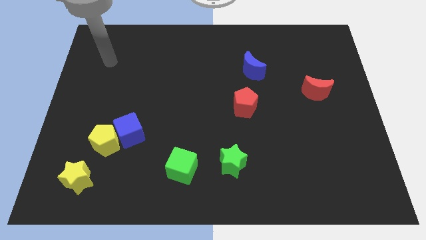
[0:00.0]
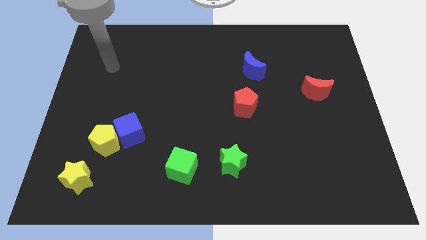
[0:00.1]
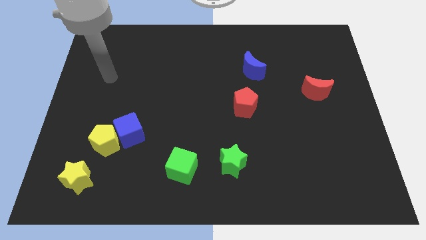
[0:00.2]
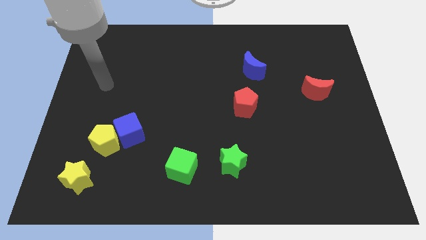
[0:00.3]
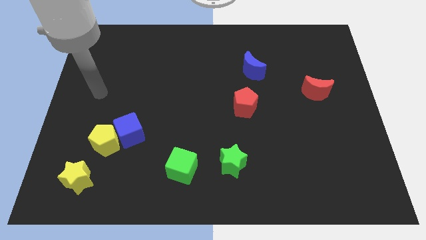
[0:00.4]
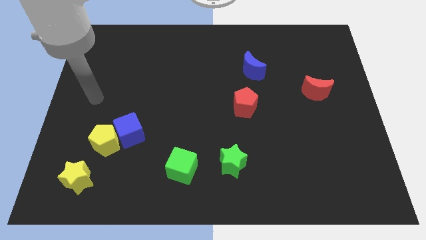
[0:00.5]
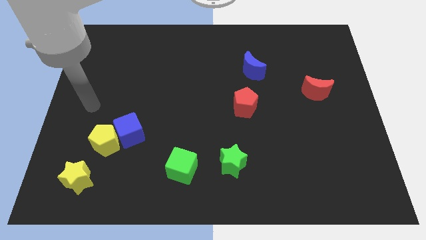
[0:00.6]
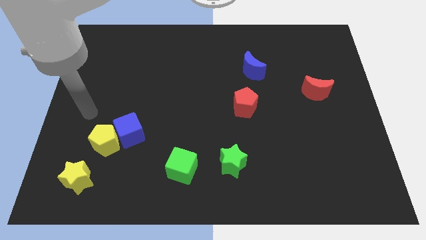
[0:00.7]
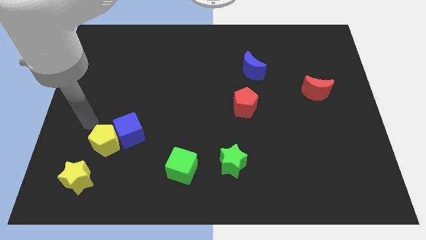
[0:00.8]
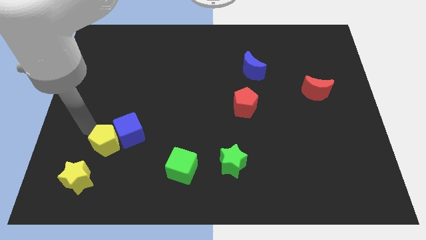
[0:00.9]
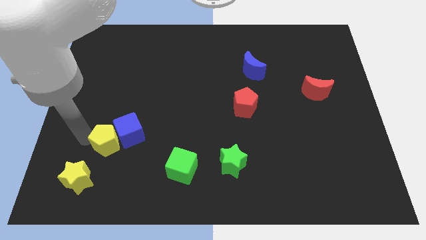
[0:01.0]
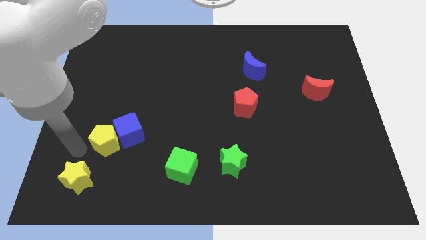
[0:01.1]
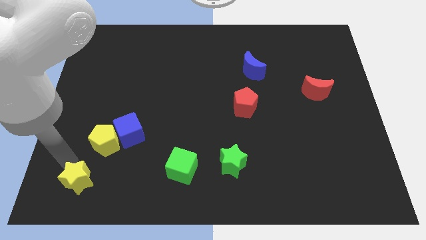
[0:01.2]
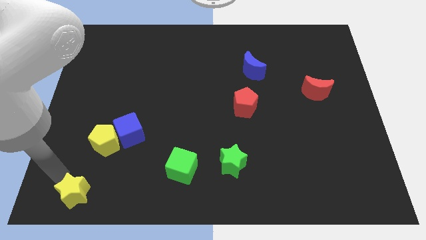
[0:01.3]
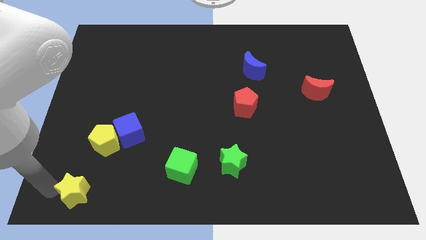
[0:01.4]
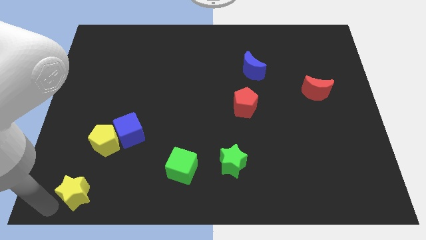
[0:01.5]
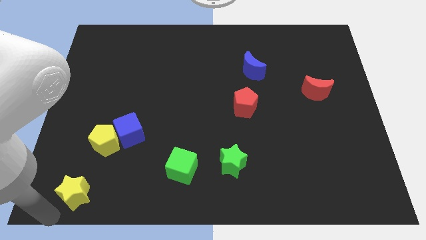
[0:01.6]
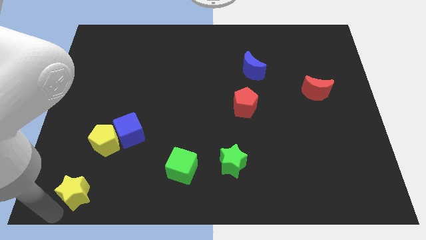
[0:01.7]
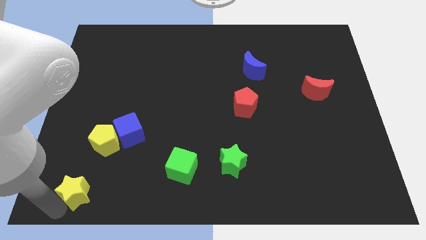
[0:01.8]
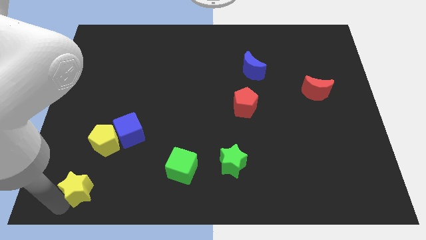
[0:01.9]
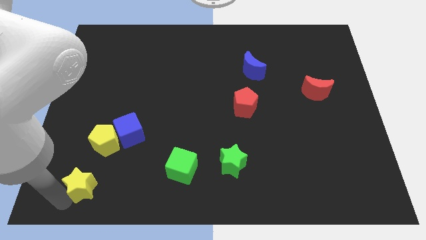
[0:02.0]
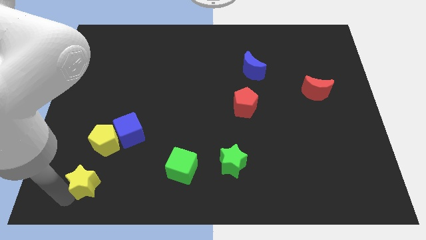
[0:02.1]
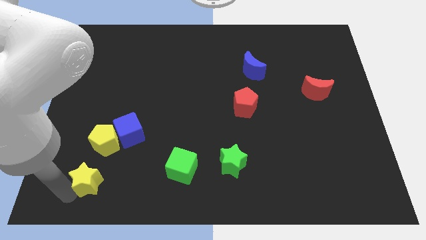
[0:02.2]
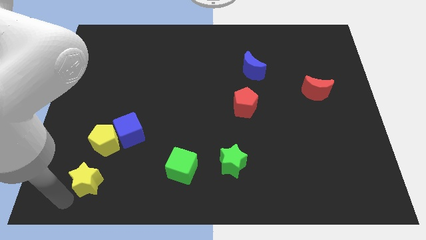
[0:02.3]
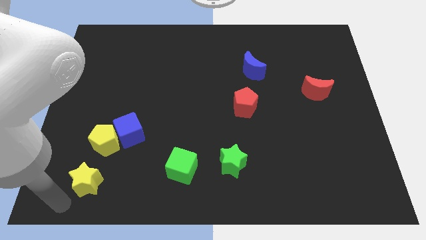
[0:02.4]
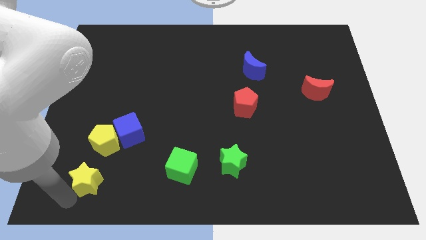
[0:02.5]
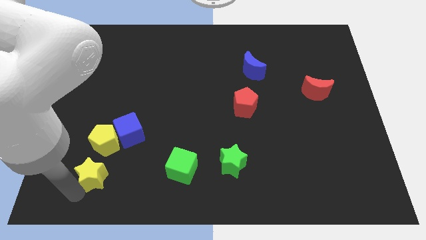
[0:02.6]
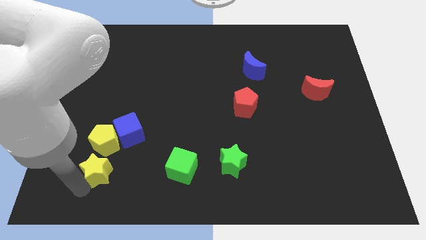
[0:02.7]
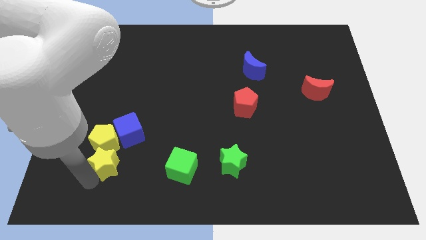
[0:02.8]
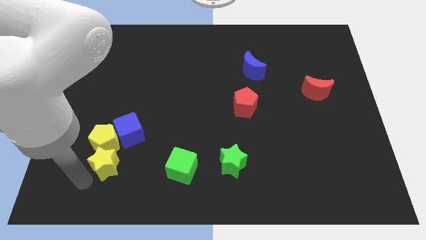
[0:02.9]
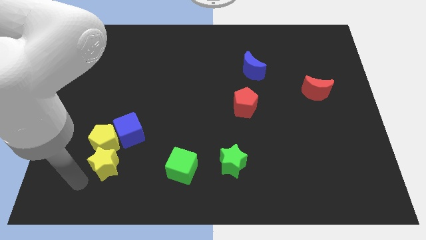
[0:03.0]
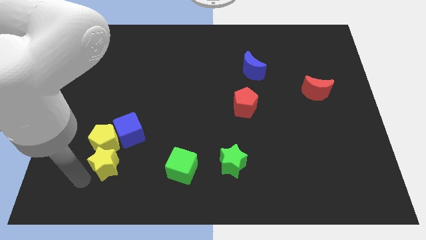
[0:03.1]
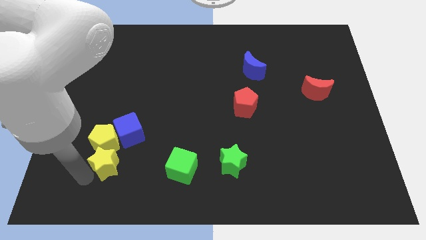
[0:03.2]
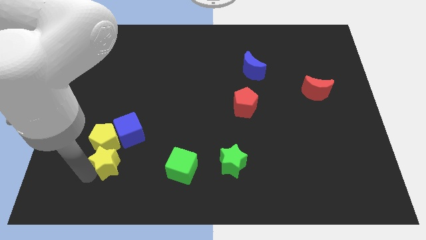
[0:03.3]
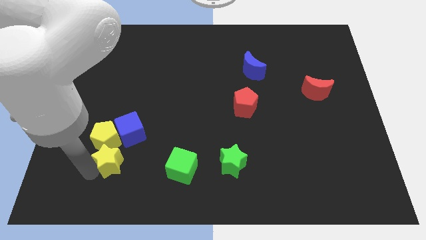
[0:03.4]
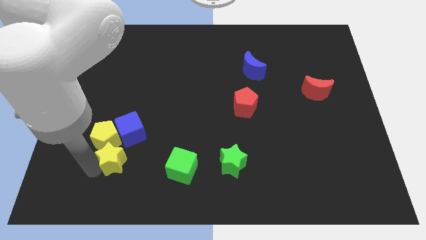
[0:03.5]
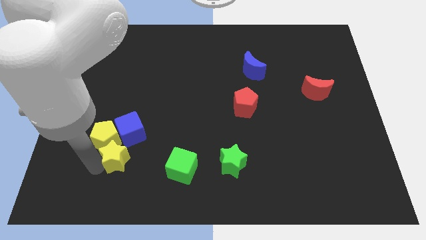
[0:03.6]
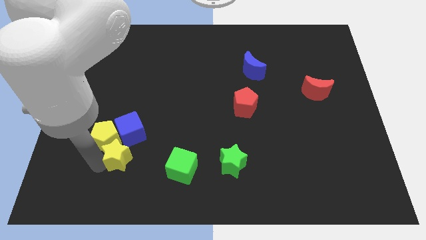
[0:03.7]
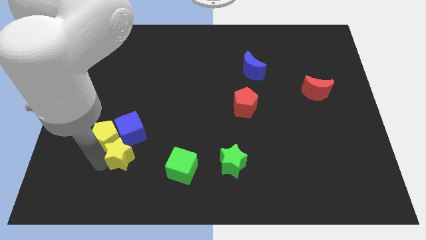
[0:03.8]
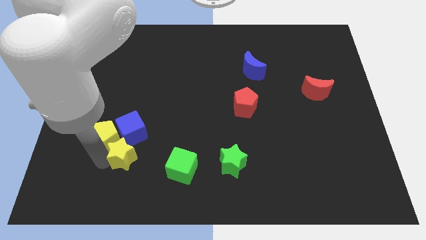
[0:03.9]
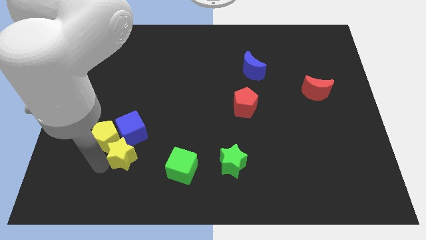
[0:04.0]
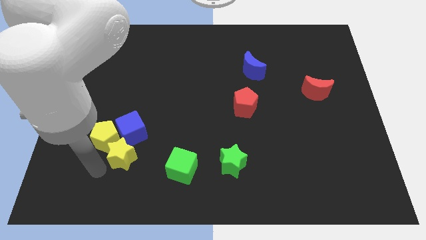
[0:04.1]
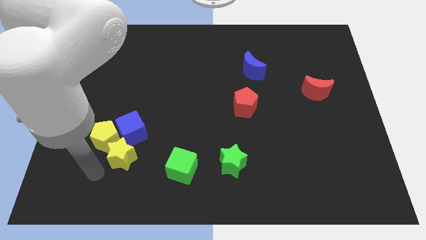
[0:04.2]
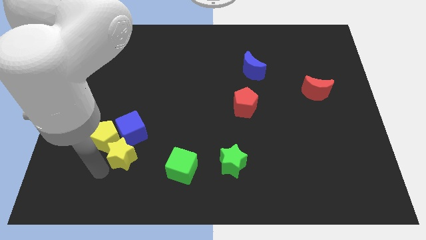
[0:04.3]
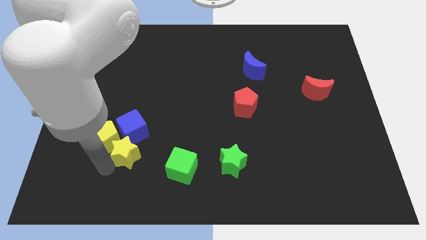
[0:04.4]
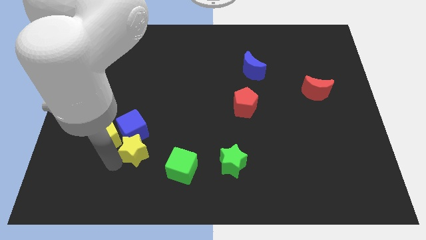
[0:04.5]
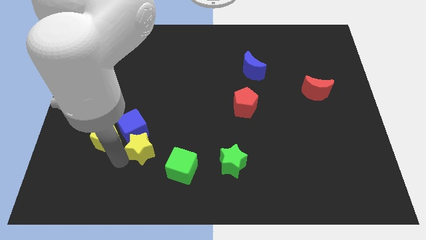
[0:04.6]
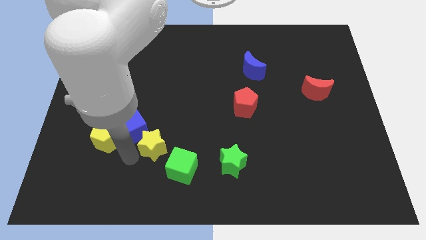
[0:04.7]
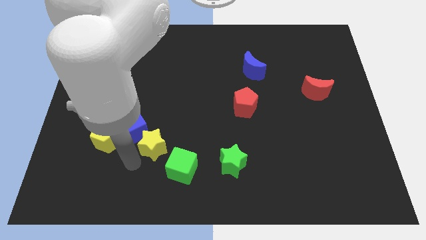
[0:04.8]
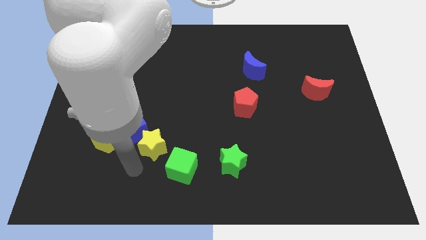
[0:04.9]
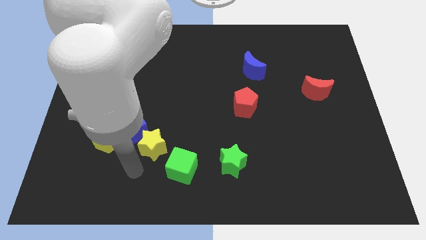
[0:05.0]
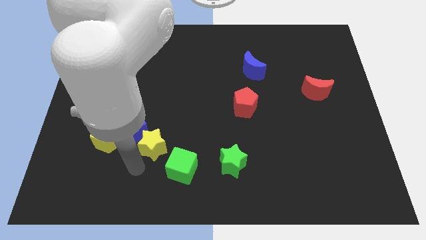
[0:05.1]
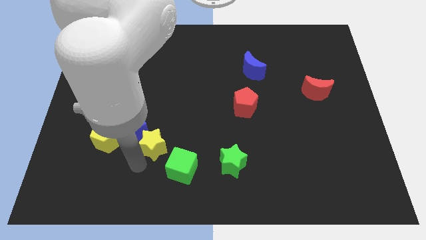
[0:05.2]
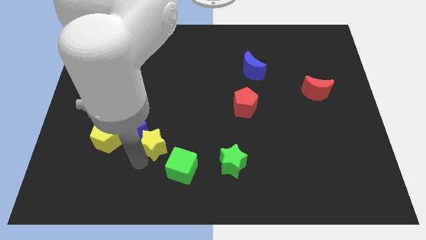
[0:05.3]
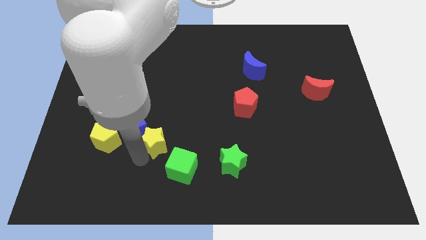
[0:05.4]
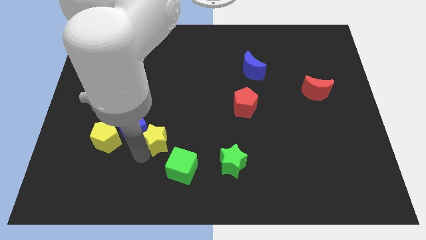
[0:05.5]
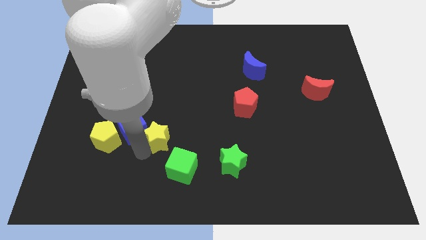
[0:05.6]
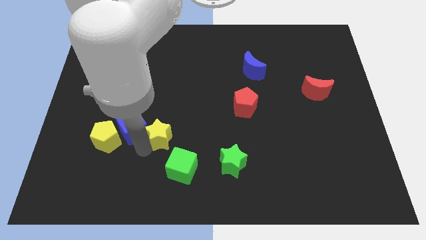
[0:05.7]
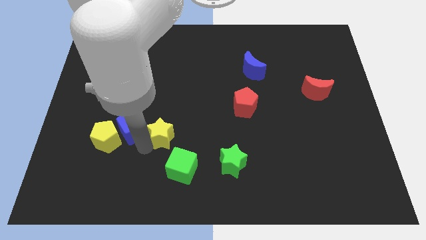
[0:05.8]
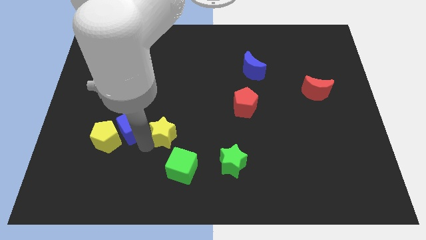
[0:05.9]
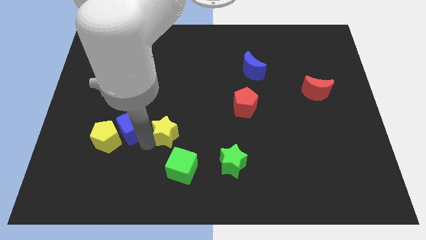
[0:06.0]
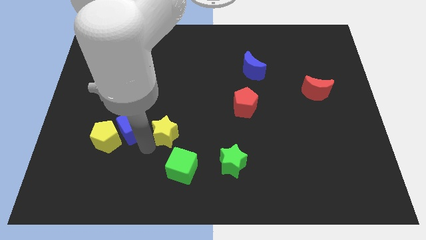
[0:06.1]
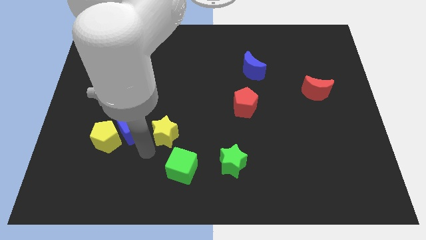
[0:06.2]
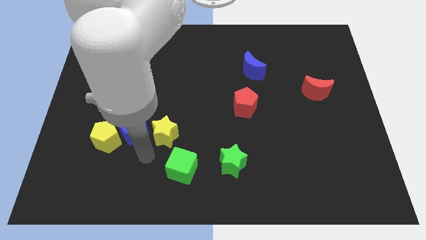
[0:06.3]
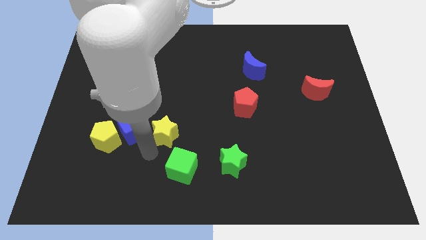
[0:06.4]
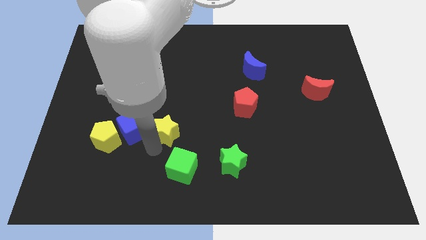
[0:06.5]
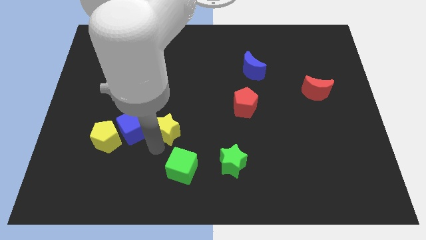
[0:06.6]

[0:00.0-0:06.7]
move the yellow star up and then right

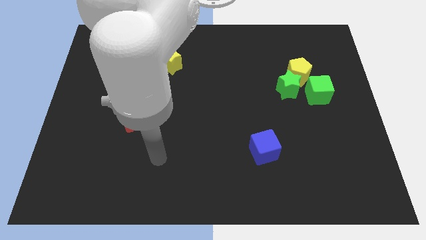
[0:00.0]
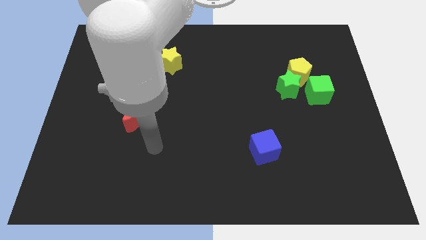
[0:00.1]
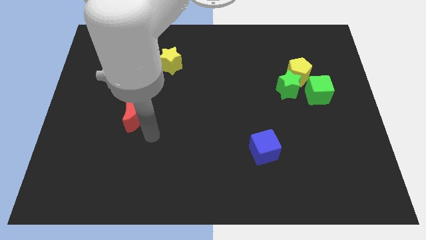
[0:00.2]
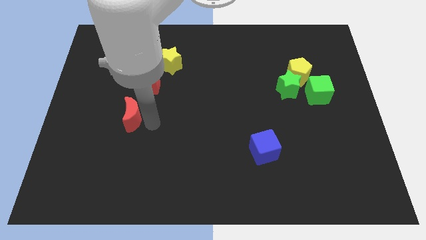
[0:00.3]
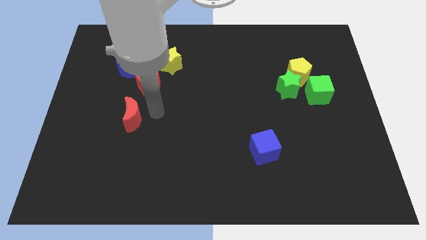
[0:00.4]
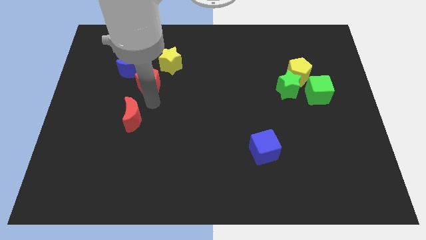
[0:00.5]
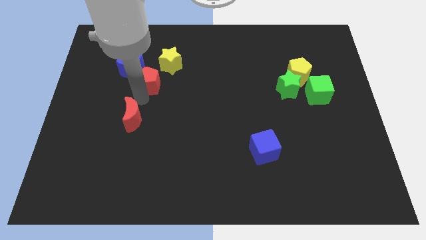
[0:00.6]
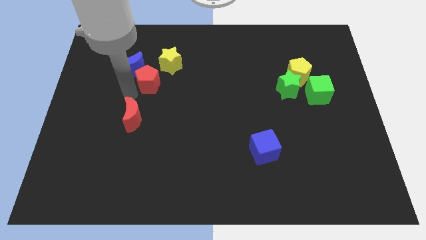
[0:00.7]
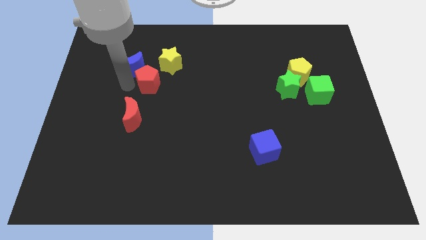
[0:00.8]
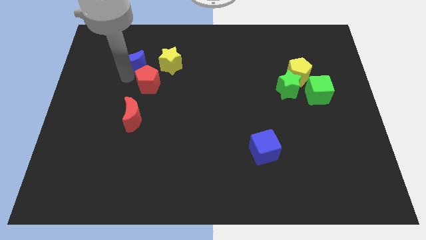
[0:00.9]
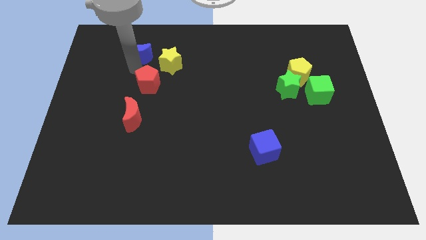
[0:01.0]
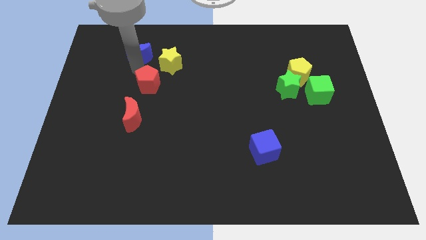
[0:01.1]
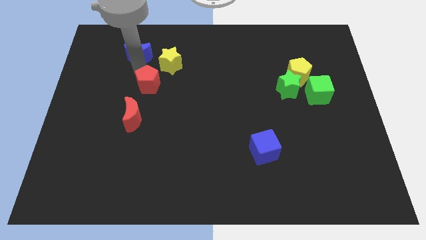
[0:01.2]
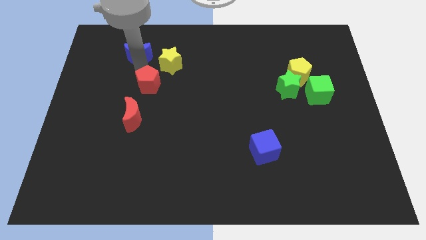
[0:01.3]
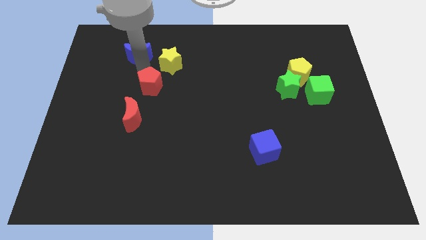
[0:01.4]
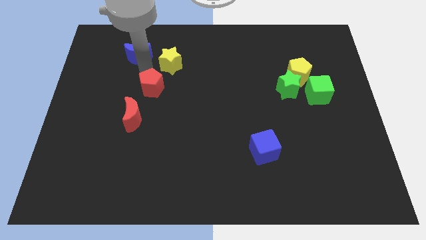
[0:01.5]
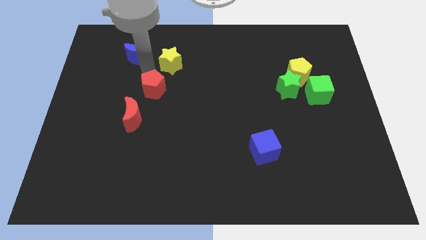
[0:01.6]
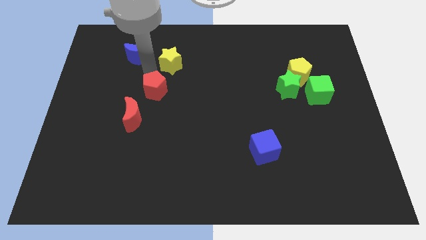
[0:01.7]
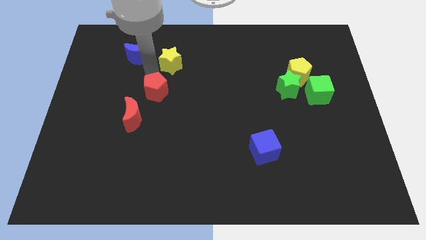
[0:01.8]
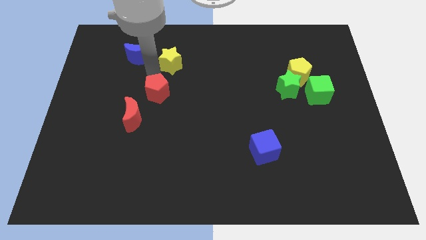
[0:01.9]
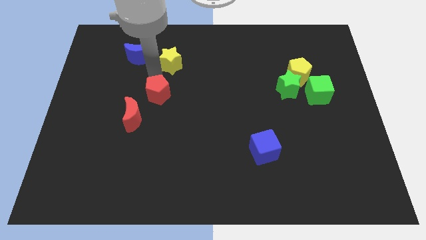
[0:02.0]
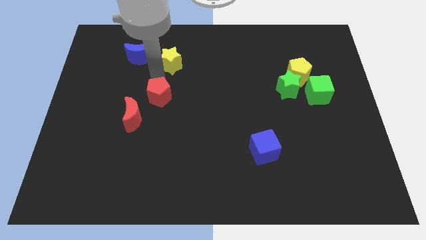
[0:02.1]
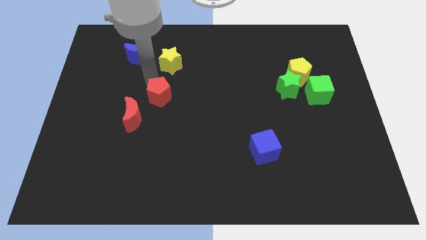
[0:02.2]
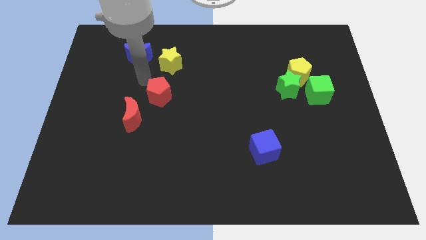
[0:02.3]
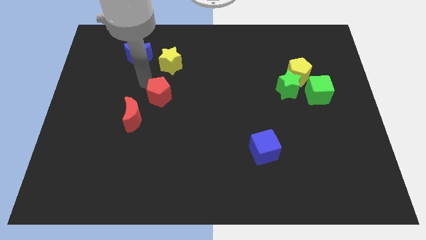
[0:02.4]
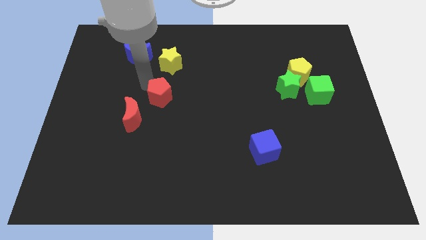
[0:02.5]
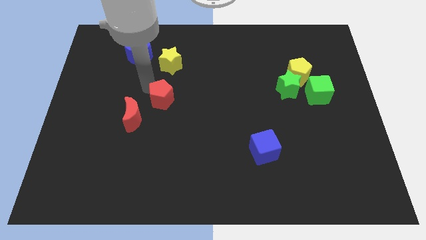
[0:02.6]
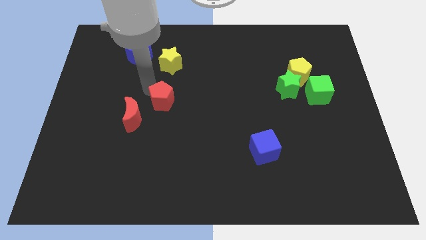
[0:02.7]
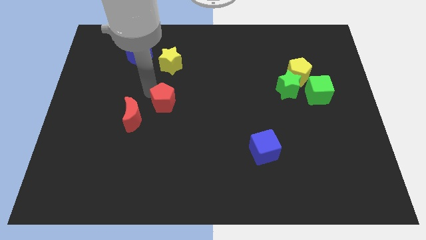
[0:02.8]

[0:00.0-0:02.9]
move the red pentagon diagonally down and to the right somewhat
